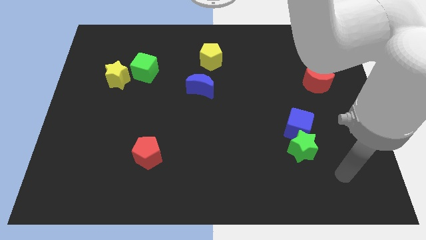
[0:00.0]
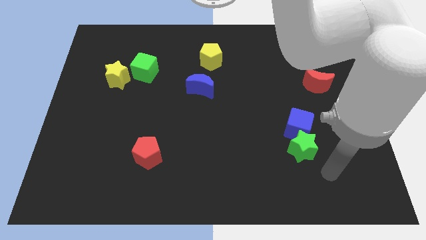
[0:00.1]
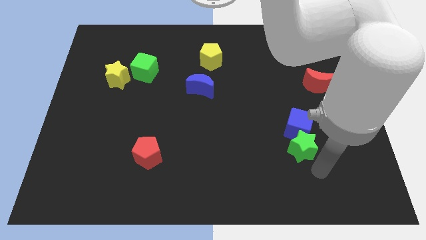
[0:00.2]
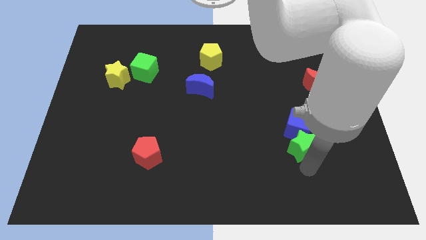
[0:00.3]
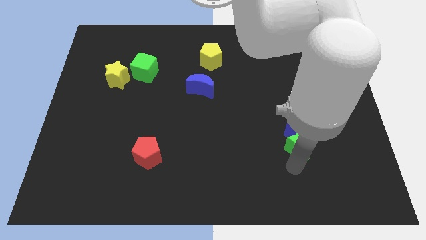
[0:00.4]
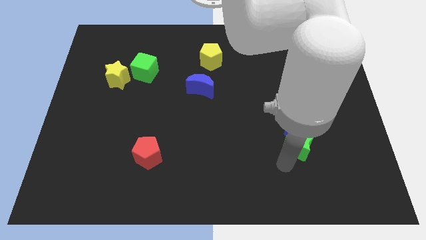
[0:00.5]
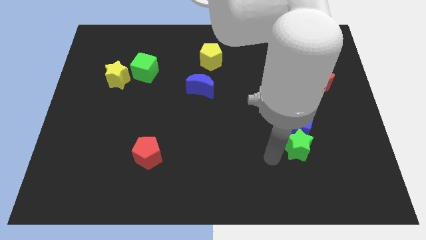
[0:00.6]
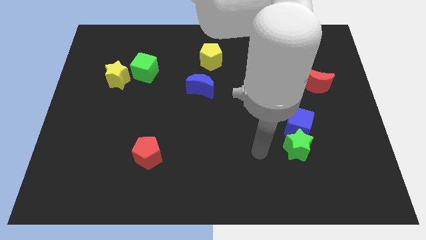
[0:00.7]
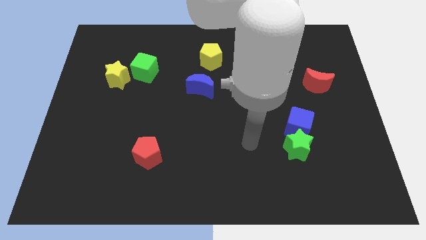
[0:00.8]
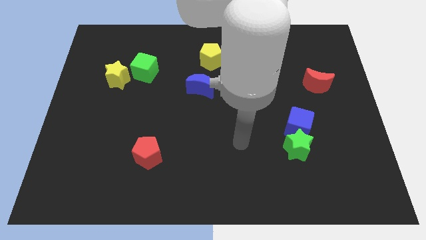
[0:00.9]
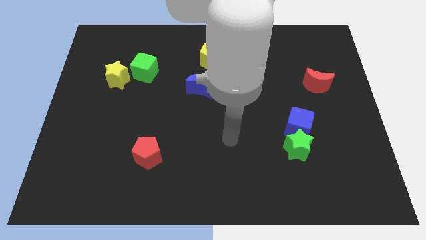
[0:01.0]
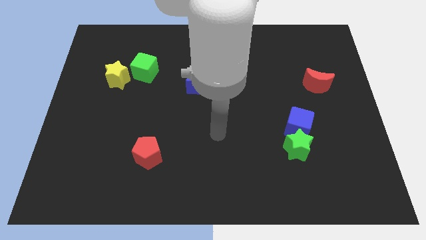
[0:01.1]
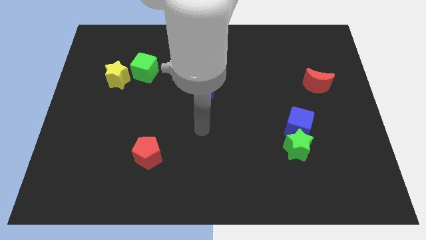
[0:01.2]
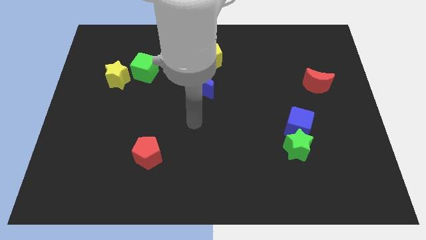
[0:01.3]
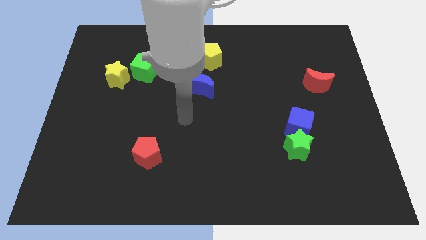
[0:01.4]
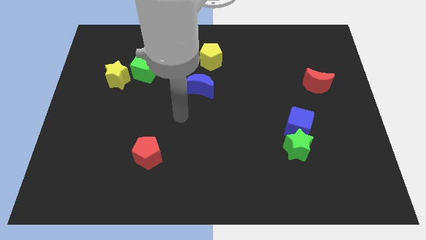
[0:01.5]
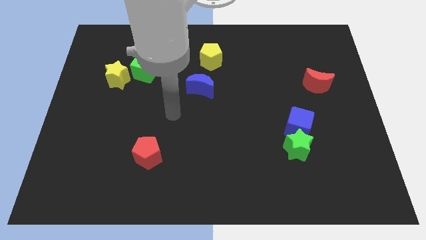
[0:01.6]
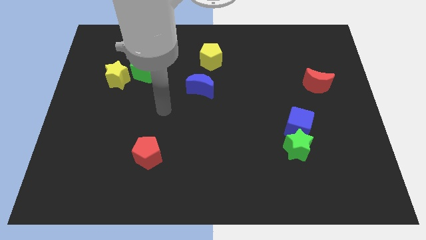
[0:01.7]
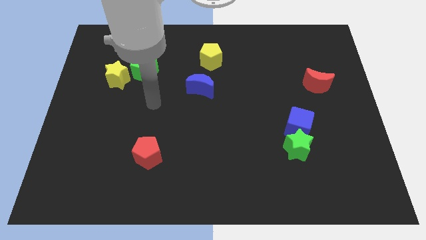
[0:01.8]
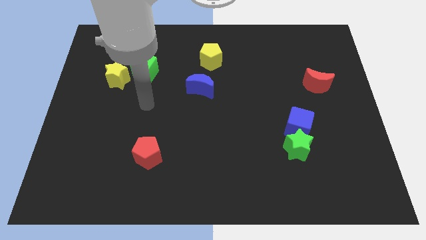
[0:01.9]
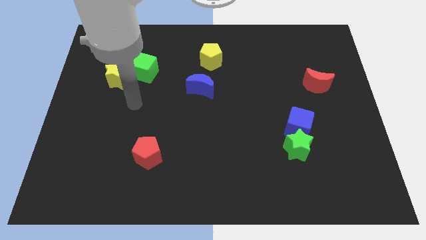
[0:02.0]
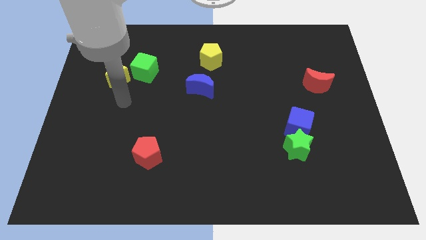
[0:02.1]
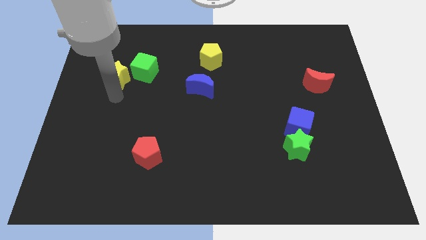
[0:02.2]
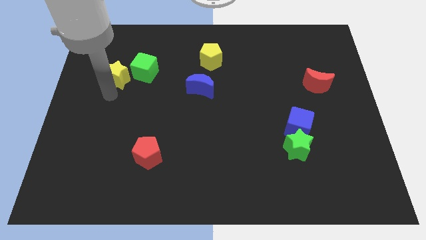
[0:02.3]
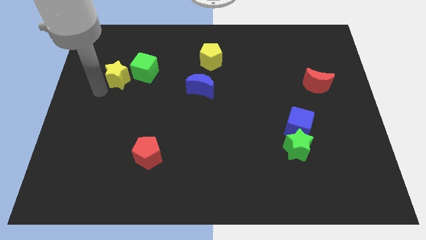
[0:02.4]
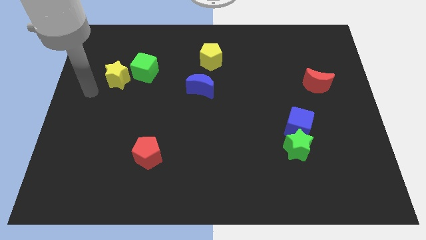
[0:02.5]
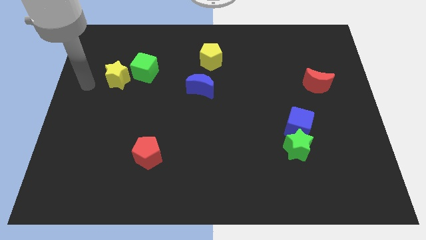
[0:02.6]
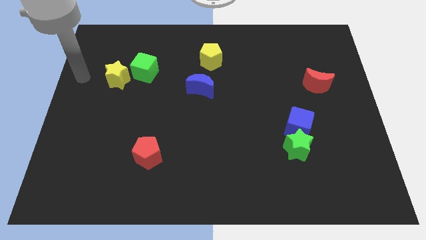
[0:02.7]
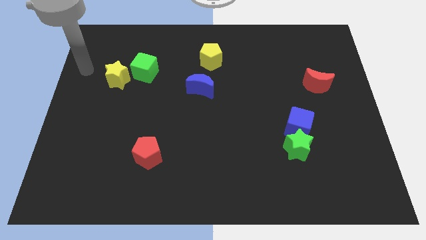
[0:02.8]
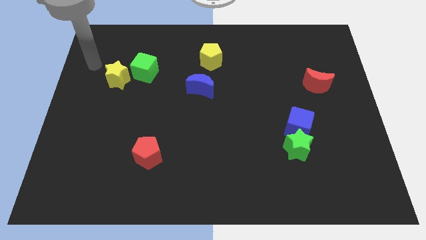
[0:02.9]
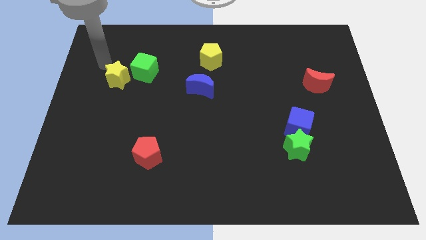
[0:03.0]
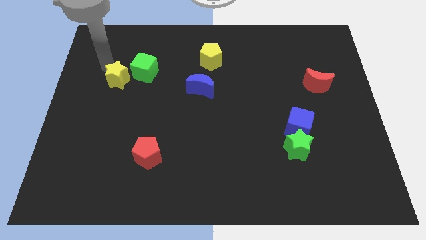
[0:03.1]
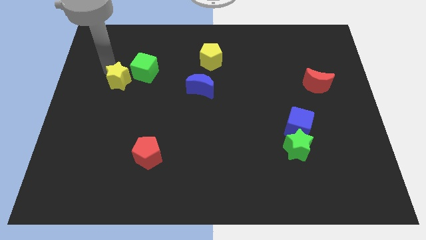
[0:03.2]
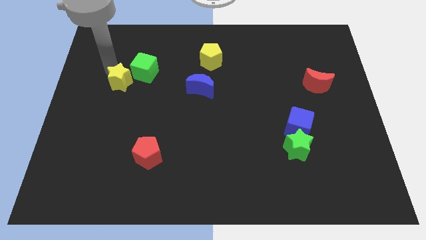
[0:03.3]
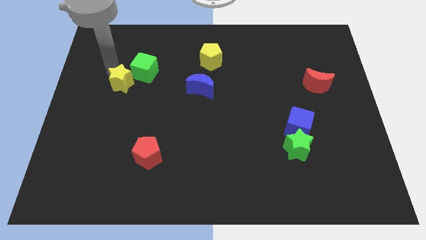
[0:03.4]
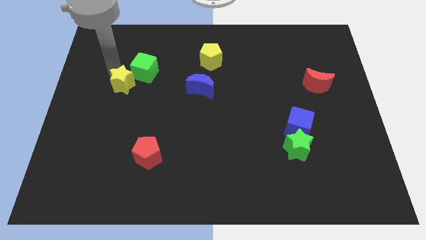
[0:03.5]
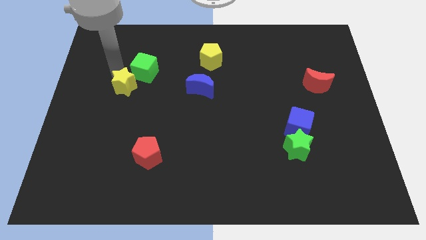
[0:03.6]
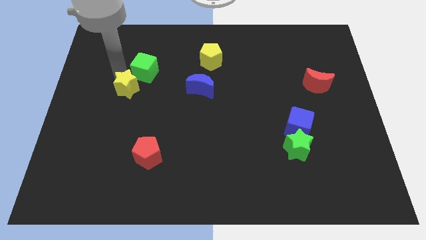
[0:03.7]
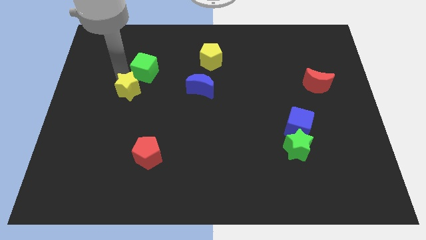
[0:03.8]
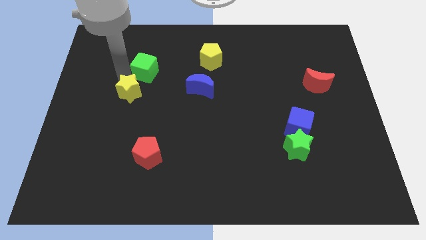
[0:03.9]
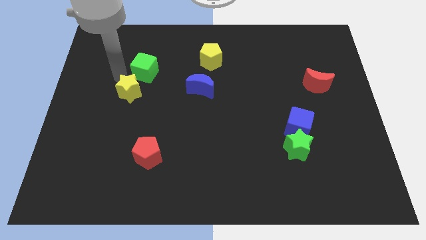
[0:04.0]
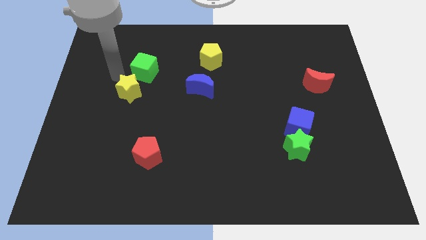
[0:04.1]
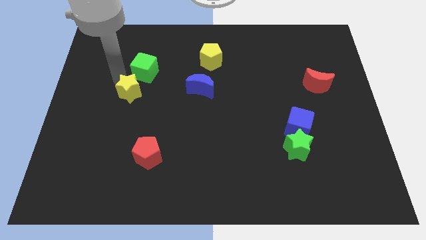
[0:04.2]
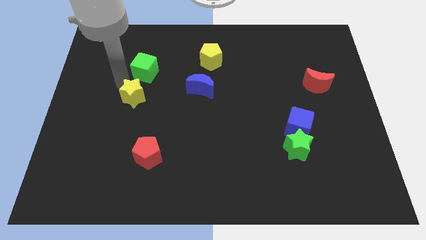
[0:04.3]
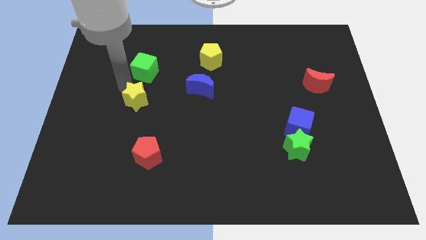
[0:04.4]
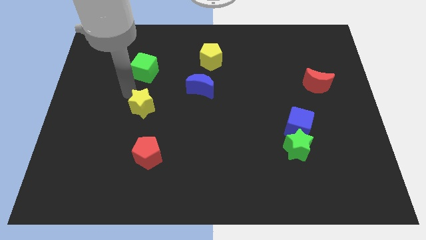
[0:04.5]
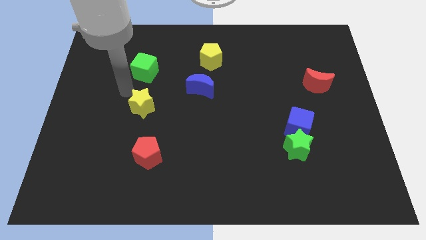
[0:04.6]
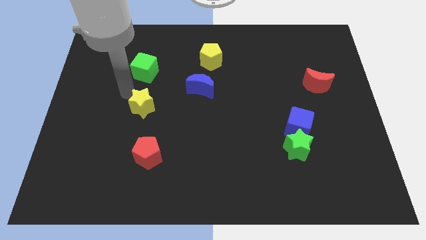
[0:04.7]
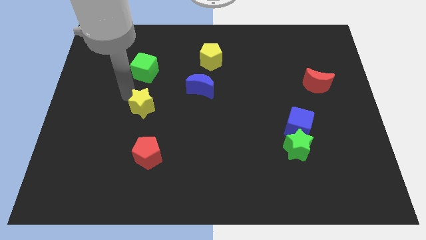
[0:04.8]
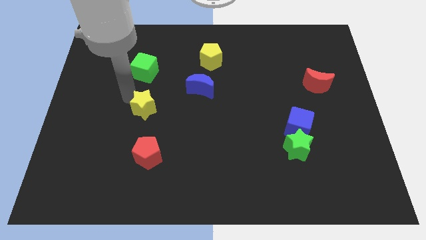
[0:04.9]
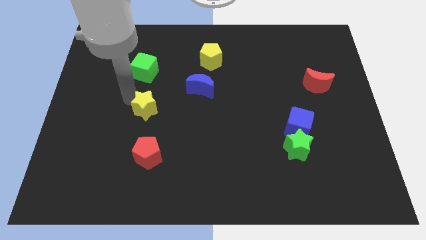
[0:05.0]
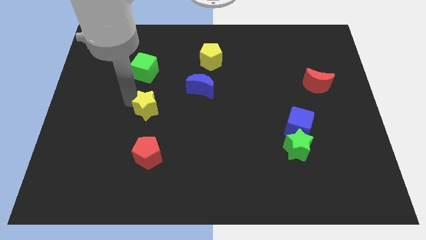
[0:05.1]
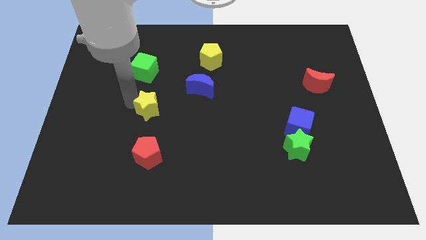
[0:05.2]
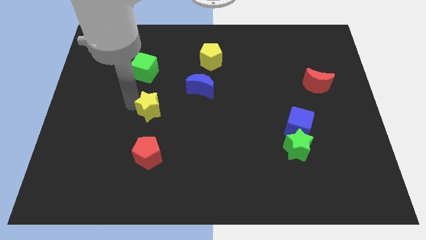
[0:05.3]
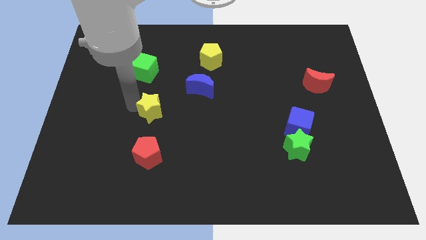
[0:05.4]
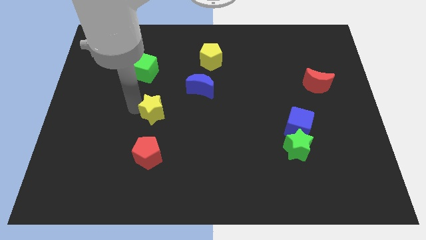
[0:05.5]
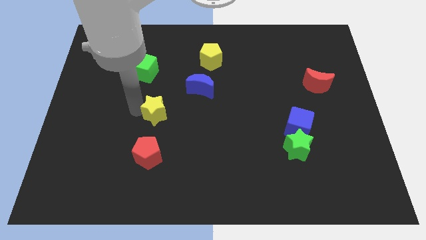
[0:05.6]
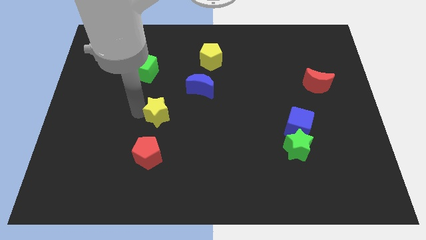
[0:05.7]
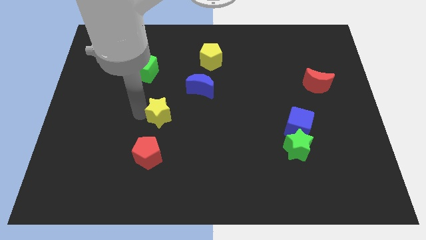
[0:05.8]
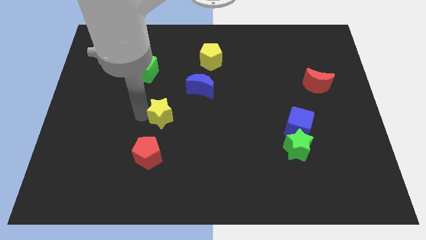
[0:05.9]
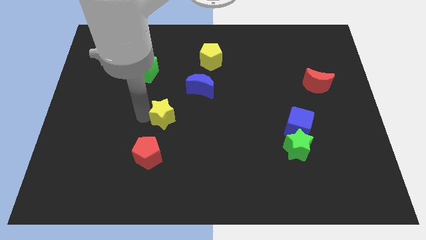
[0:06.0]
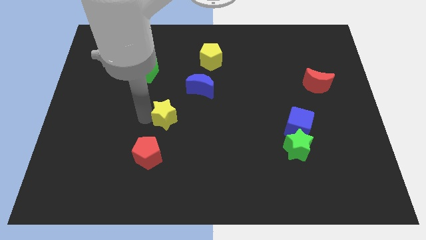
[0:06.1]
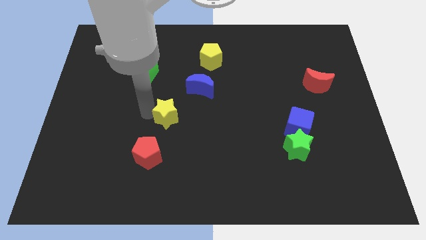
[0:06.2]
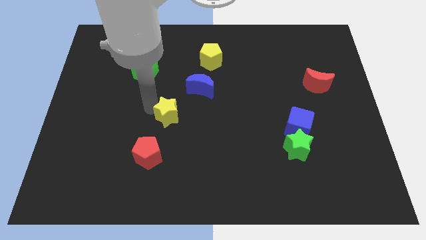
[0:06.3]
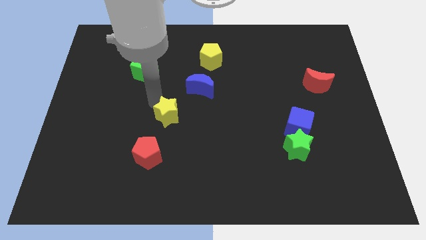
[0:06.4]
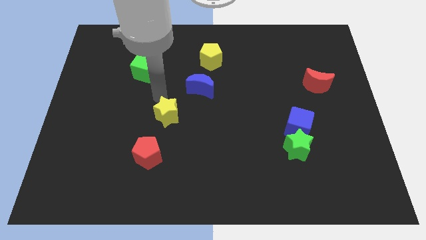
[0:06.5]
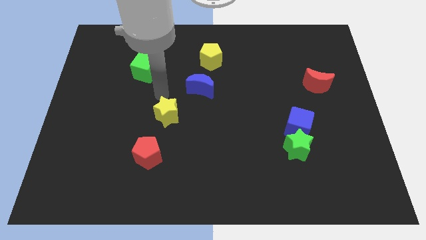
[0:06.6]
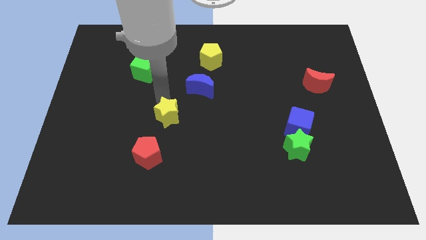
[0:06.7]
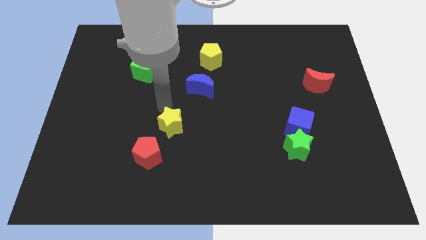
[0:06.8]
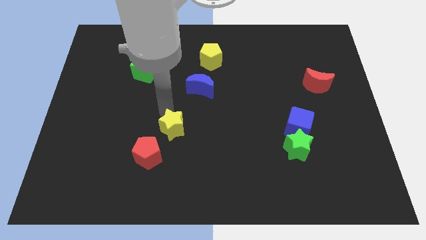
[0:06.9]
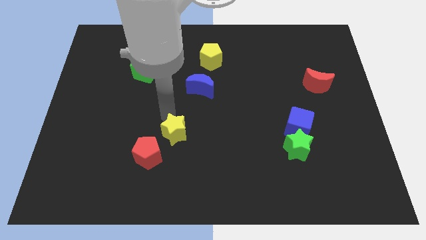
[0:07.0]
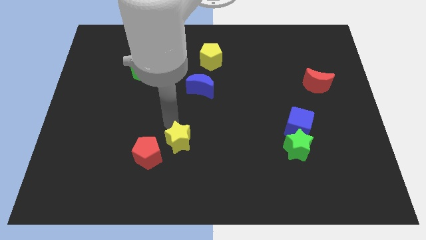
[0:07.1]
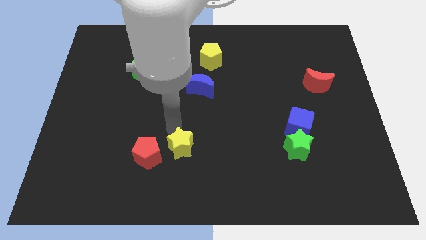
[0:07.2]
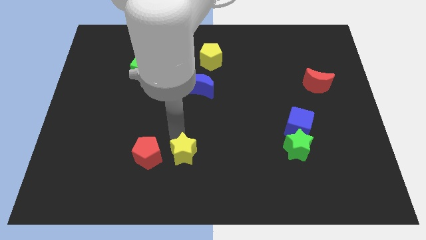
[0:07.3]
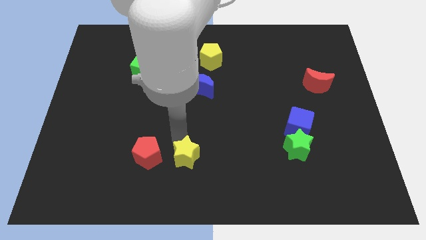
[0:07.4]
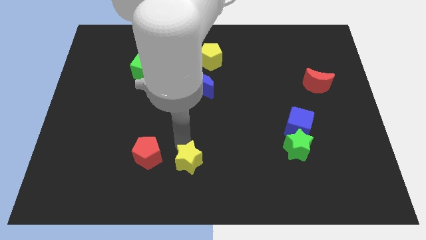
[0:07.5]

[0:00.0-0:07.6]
put the yellow star to the bottom side
